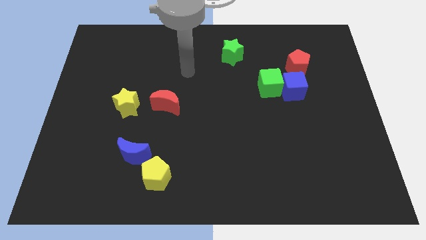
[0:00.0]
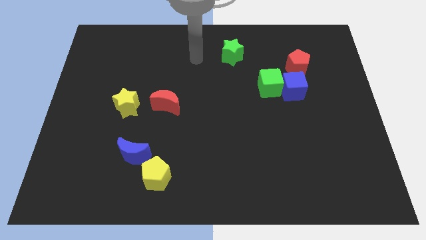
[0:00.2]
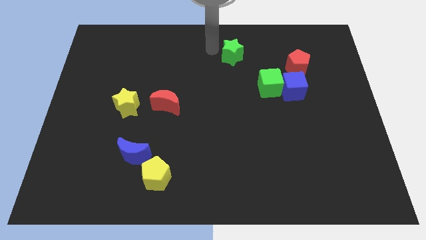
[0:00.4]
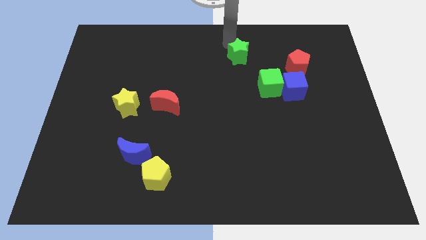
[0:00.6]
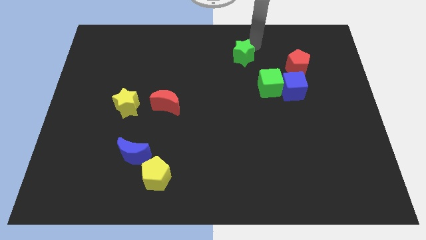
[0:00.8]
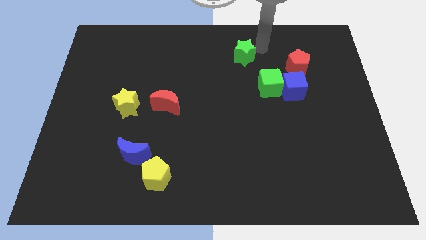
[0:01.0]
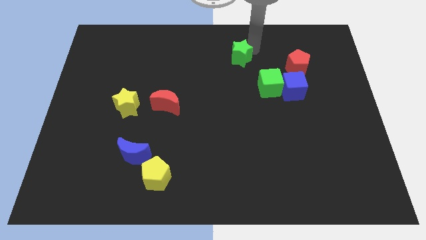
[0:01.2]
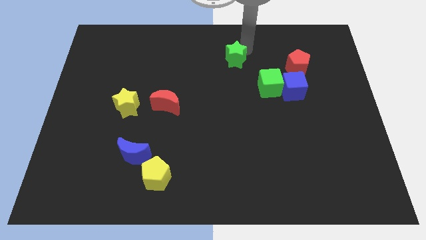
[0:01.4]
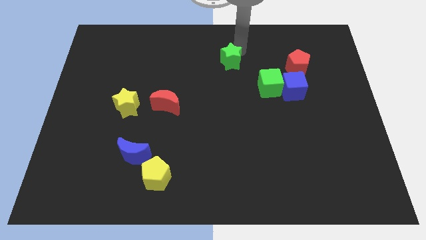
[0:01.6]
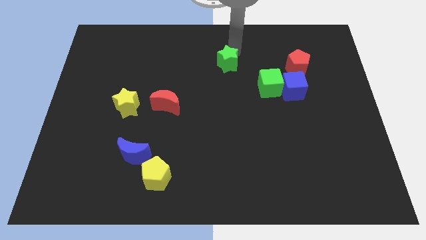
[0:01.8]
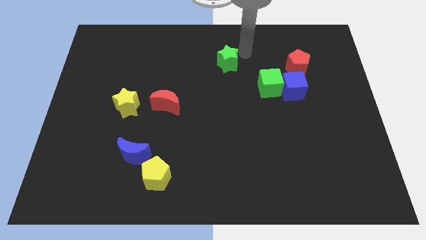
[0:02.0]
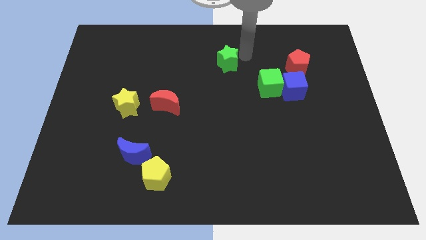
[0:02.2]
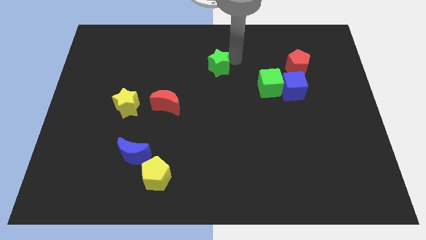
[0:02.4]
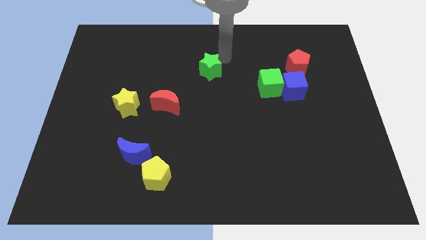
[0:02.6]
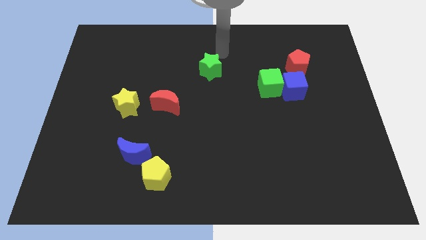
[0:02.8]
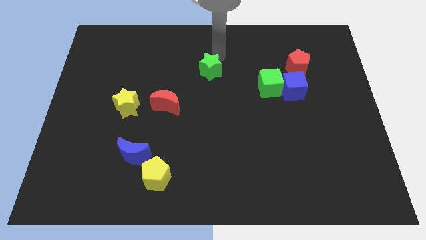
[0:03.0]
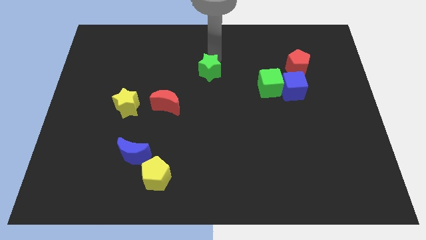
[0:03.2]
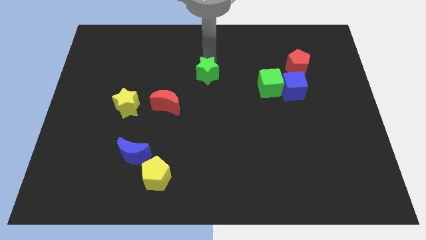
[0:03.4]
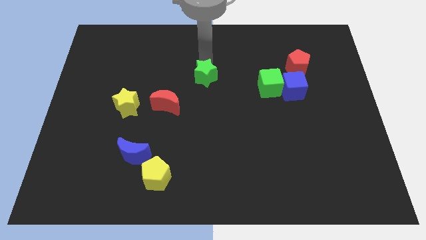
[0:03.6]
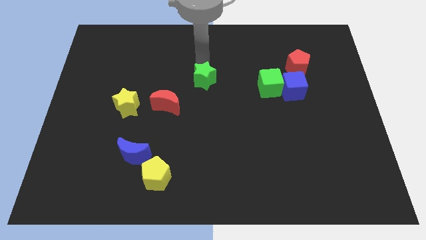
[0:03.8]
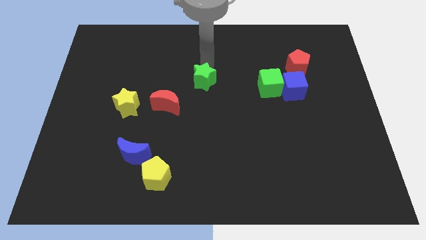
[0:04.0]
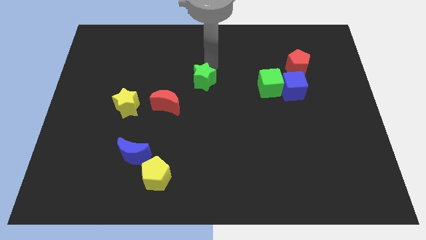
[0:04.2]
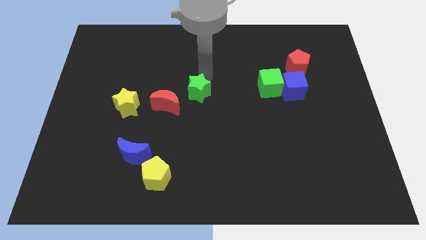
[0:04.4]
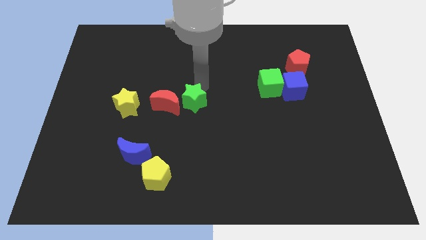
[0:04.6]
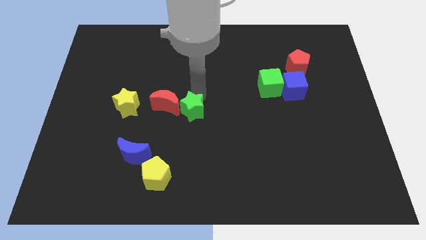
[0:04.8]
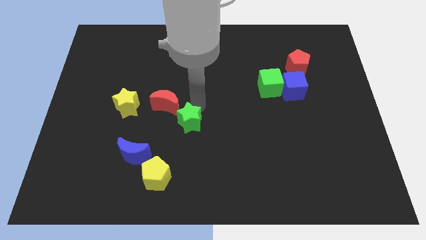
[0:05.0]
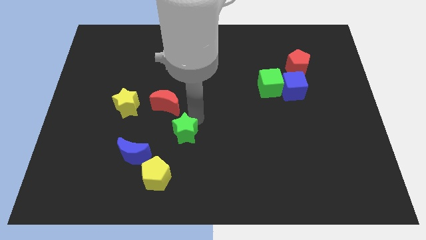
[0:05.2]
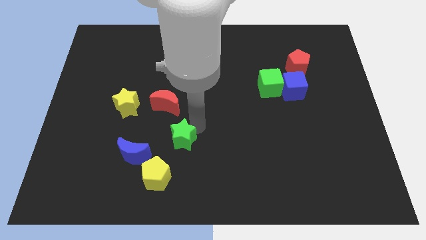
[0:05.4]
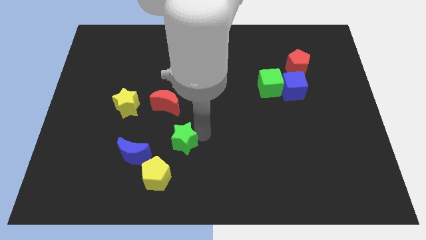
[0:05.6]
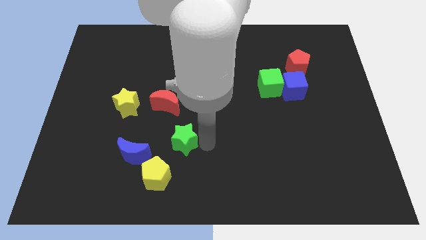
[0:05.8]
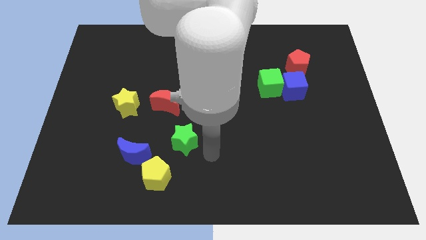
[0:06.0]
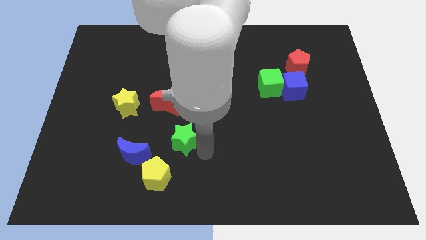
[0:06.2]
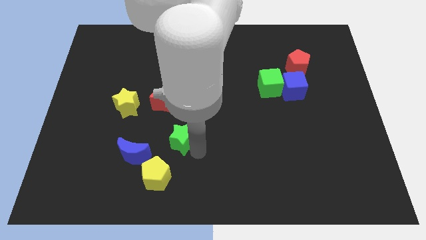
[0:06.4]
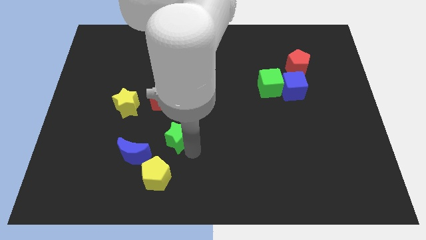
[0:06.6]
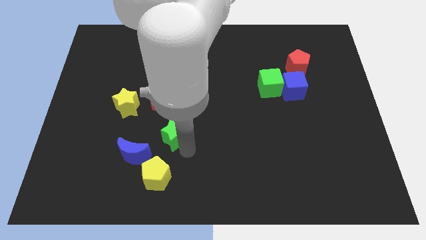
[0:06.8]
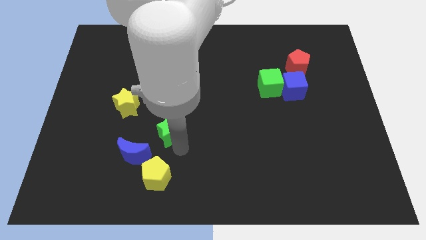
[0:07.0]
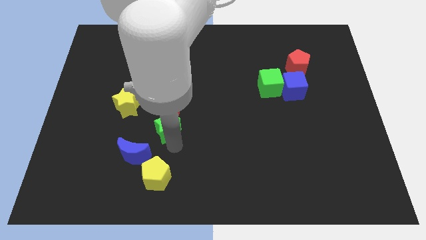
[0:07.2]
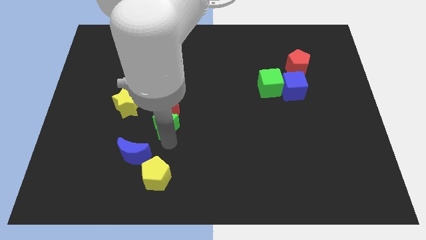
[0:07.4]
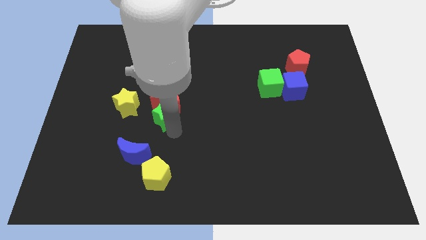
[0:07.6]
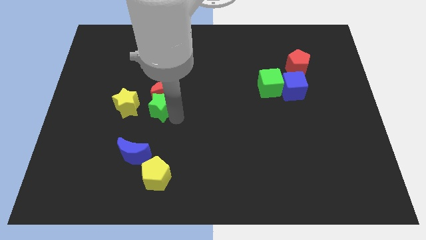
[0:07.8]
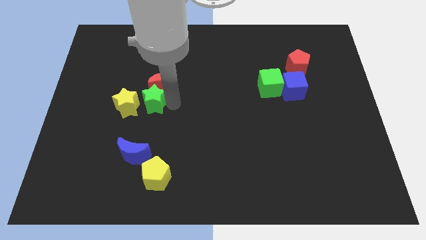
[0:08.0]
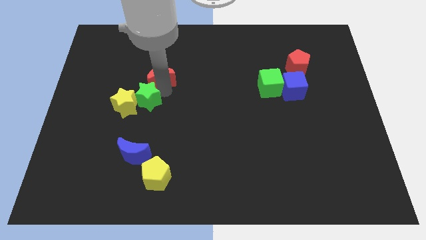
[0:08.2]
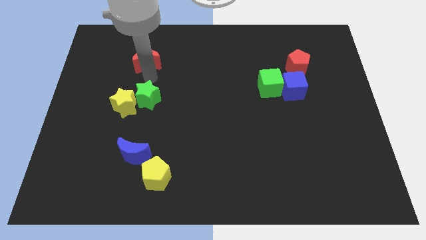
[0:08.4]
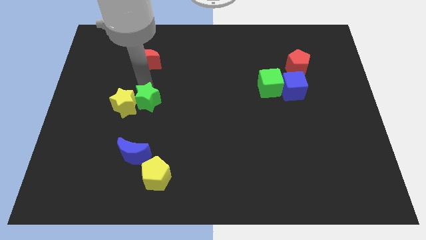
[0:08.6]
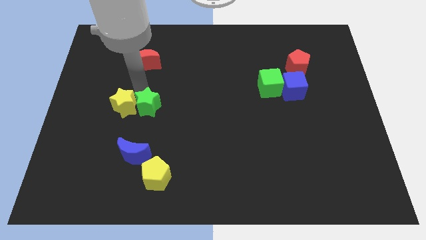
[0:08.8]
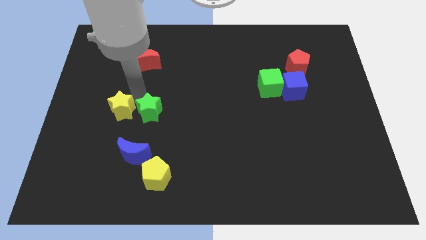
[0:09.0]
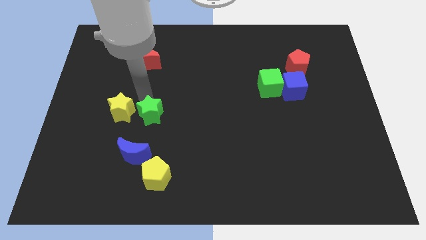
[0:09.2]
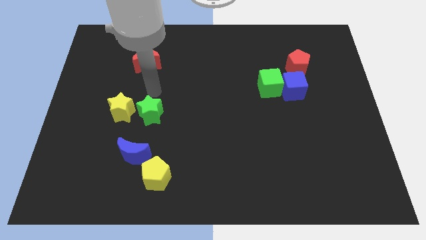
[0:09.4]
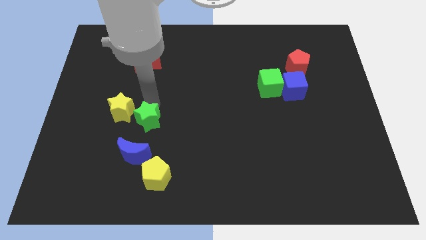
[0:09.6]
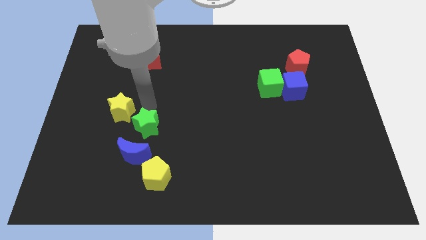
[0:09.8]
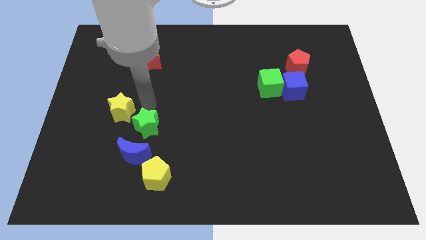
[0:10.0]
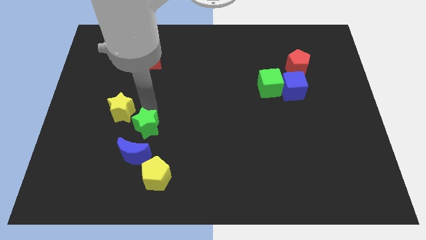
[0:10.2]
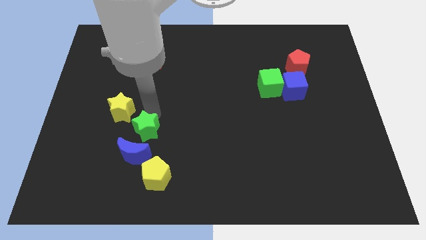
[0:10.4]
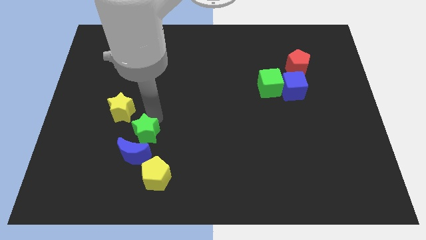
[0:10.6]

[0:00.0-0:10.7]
slide the green star next to the blue moon

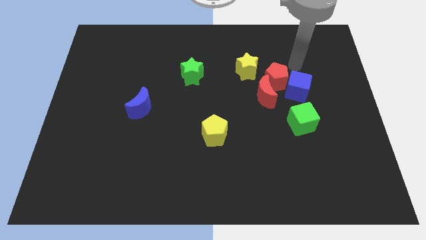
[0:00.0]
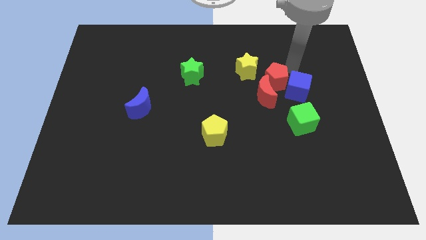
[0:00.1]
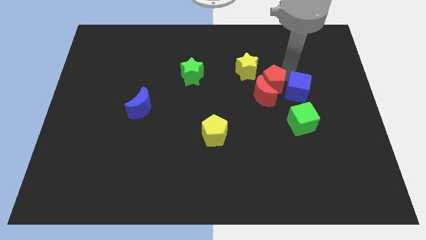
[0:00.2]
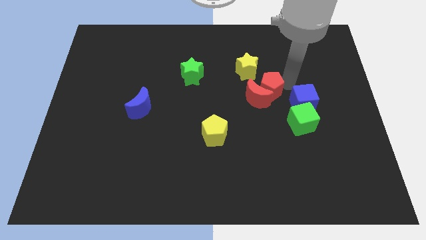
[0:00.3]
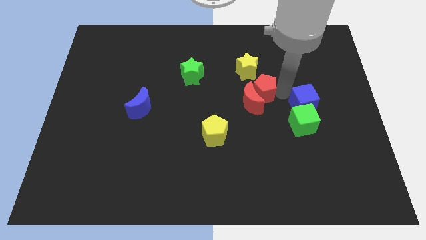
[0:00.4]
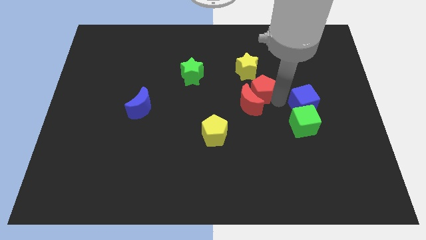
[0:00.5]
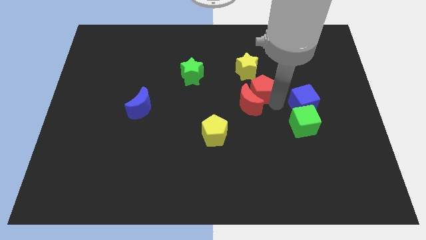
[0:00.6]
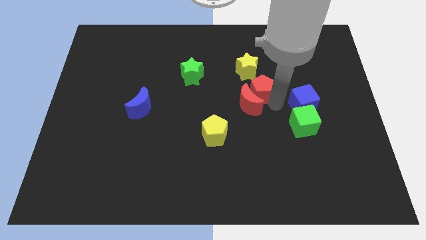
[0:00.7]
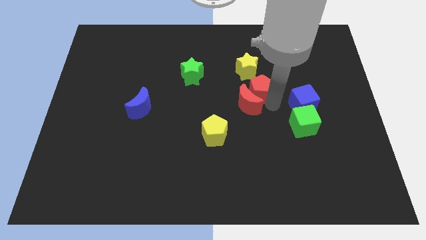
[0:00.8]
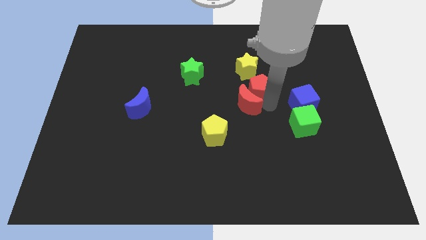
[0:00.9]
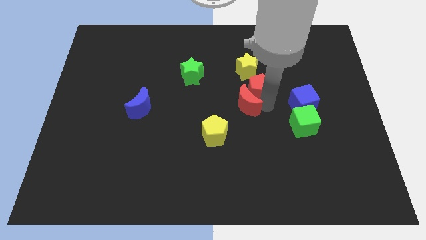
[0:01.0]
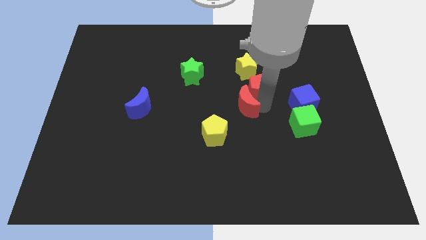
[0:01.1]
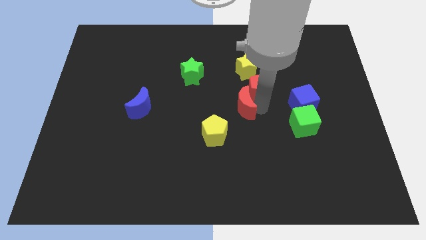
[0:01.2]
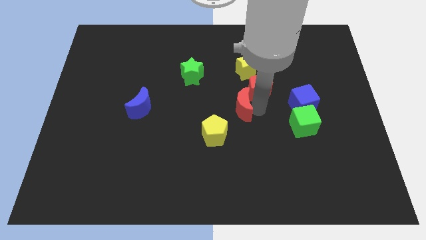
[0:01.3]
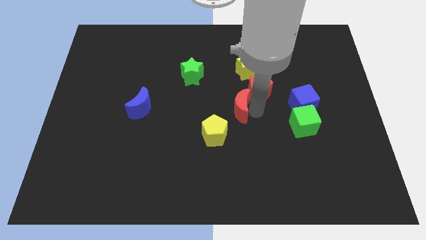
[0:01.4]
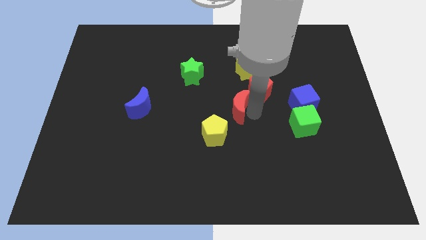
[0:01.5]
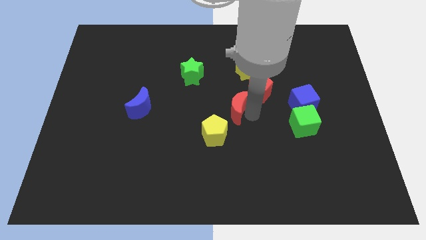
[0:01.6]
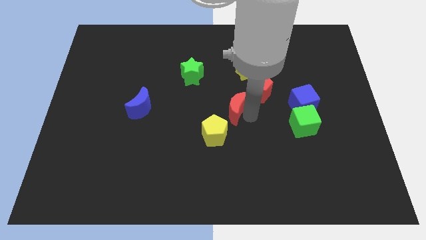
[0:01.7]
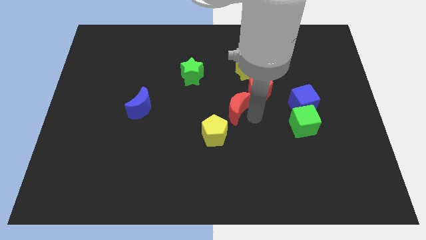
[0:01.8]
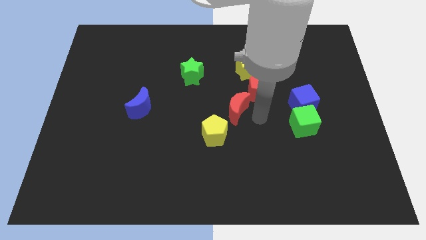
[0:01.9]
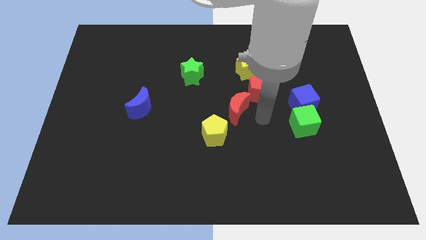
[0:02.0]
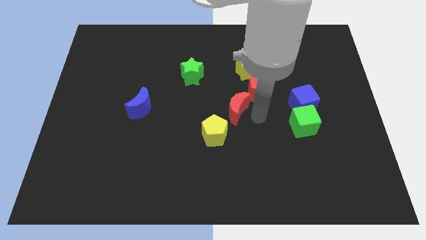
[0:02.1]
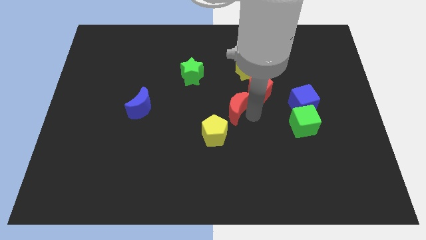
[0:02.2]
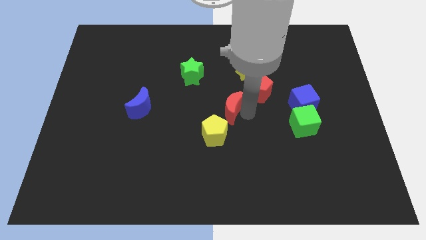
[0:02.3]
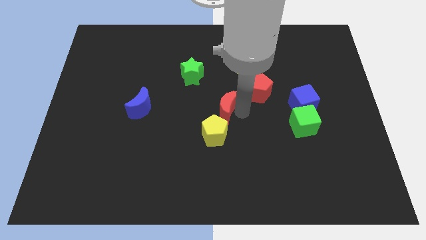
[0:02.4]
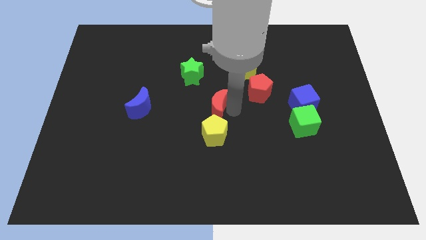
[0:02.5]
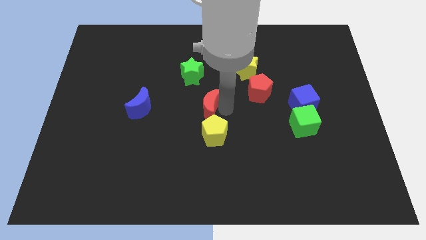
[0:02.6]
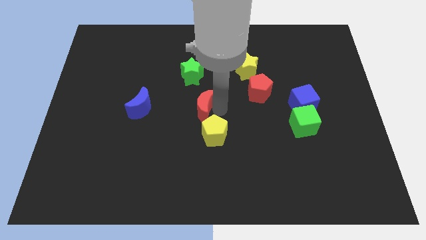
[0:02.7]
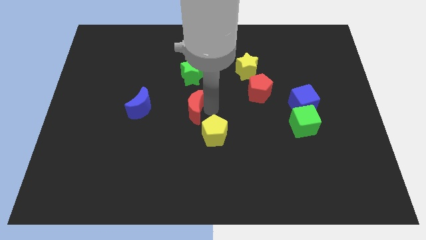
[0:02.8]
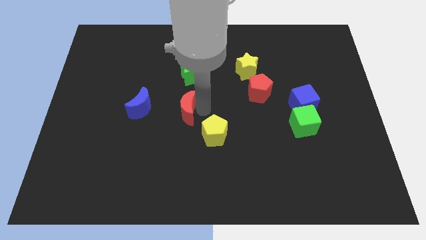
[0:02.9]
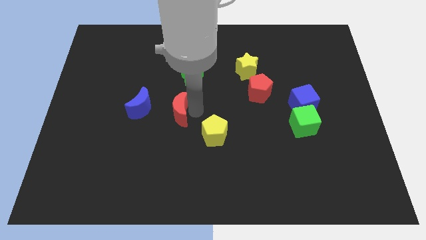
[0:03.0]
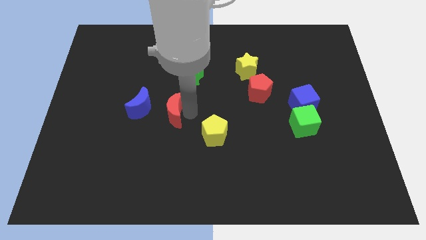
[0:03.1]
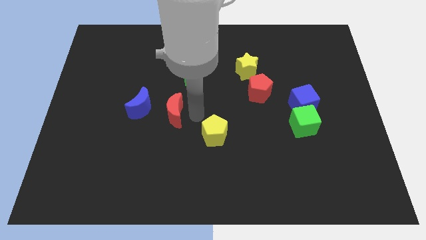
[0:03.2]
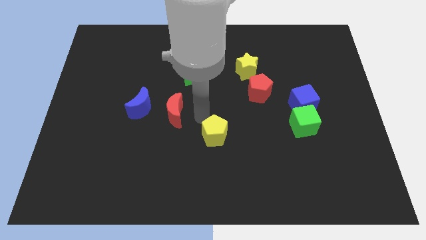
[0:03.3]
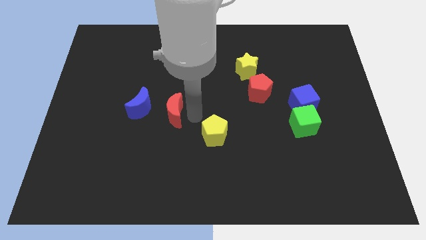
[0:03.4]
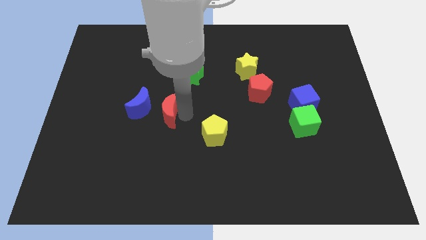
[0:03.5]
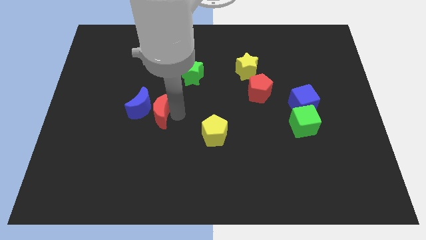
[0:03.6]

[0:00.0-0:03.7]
slide the red moon to the blue moon
